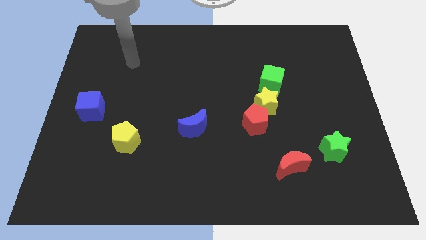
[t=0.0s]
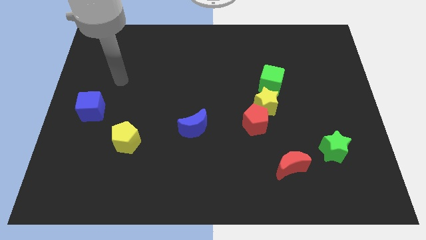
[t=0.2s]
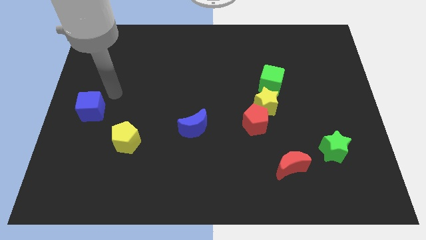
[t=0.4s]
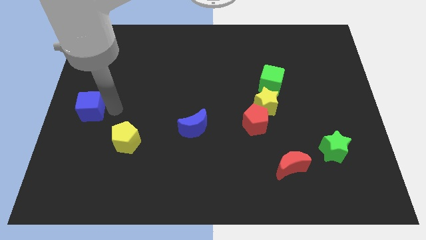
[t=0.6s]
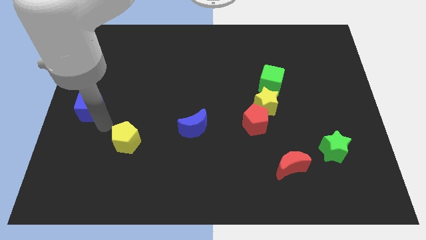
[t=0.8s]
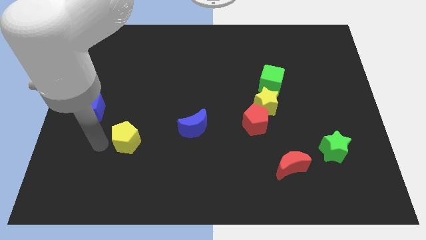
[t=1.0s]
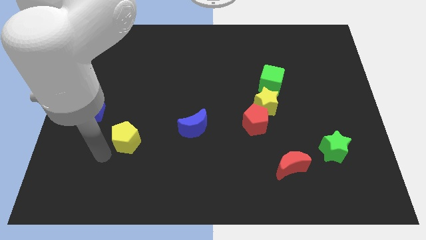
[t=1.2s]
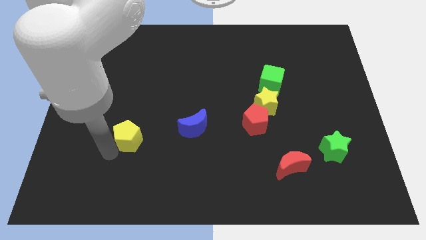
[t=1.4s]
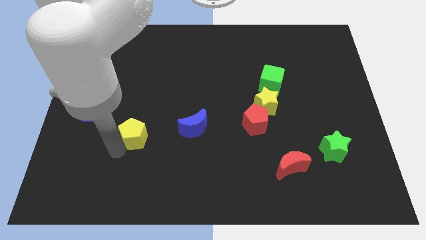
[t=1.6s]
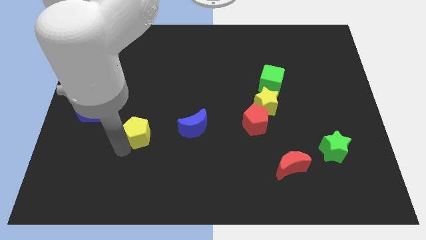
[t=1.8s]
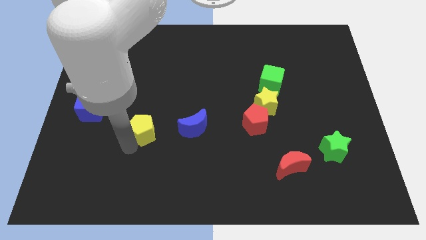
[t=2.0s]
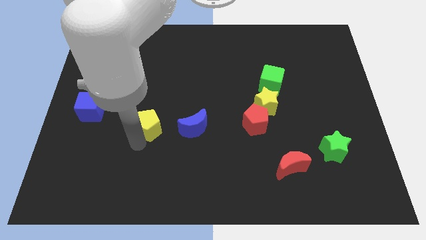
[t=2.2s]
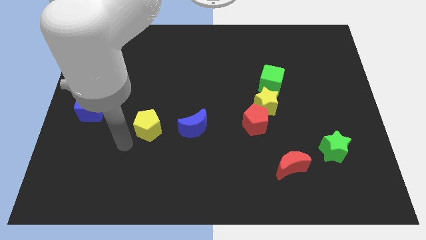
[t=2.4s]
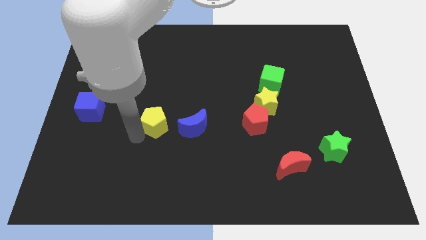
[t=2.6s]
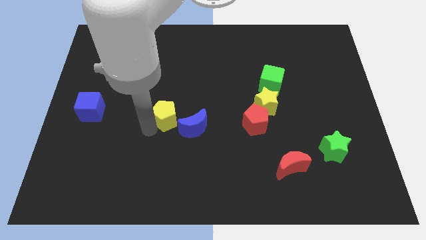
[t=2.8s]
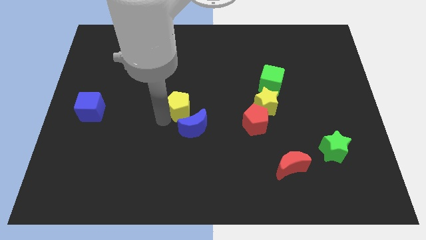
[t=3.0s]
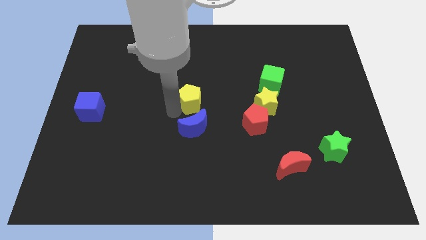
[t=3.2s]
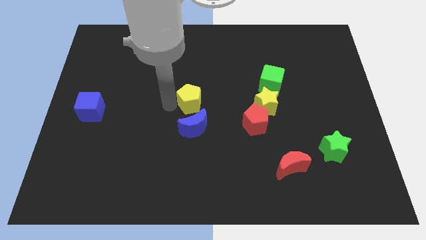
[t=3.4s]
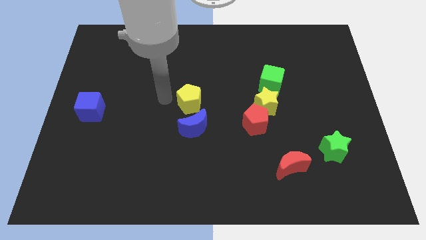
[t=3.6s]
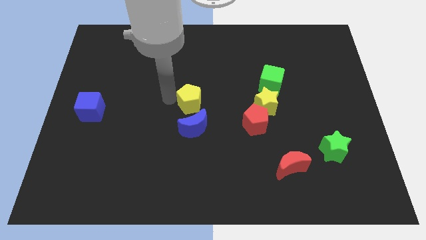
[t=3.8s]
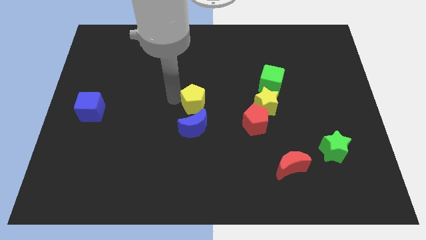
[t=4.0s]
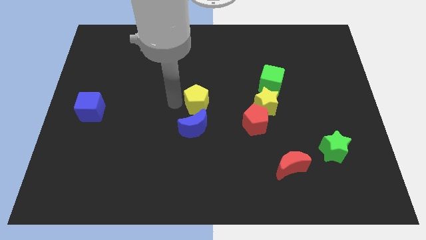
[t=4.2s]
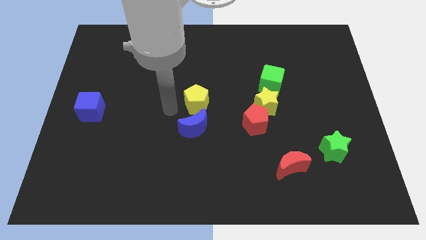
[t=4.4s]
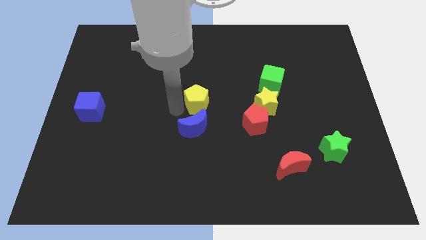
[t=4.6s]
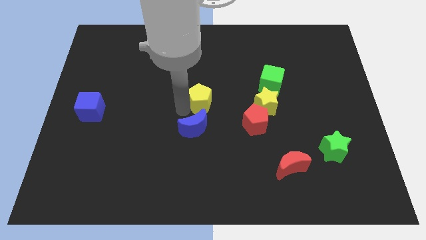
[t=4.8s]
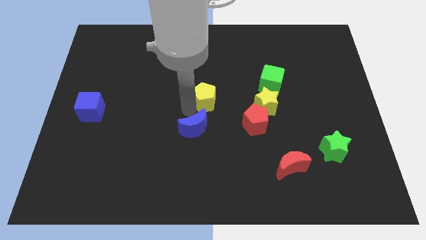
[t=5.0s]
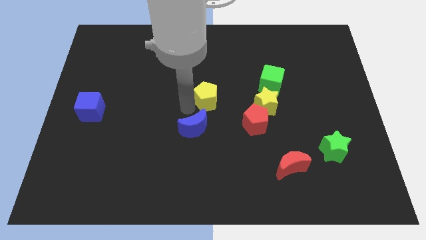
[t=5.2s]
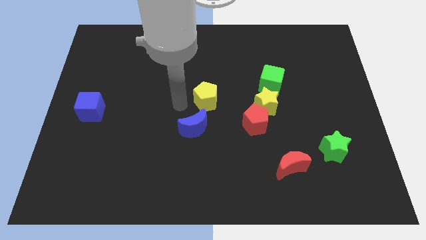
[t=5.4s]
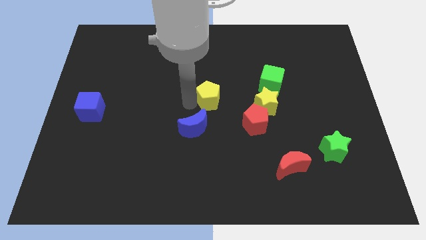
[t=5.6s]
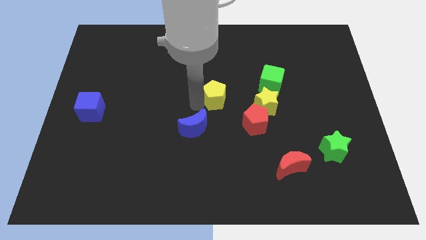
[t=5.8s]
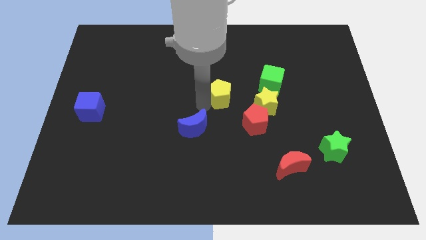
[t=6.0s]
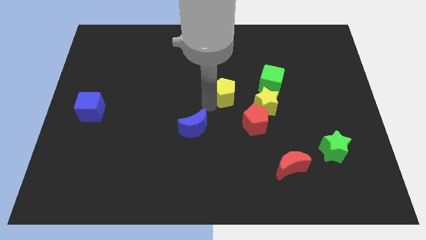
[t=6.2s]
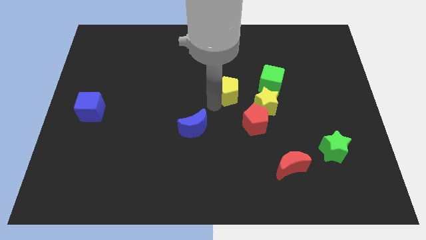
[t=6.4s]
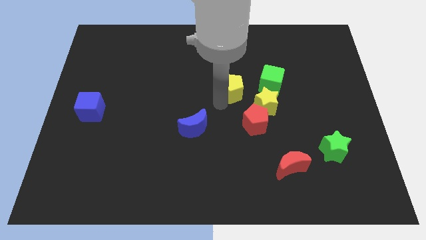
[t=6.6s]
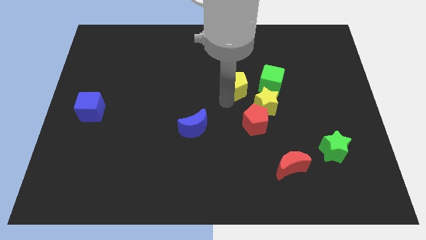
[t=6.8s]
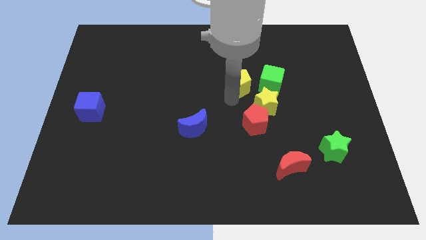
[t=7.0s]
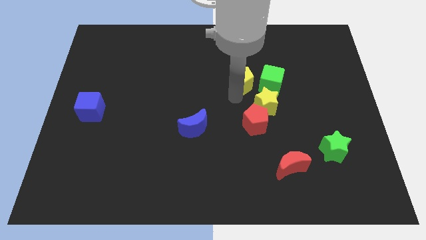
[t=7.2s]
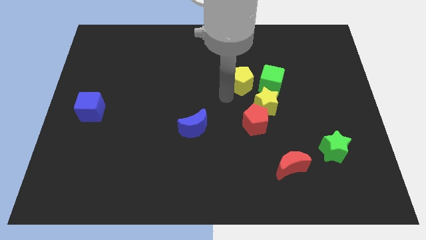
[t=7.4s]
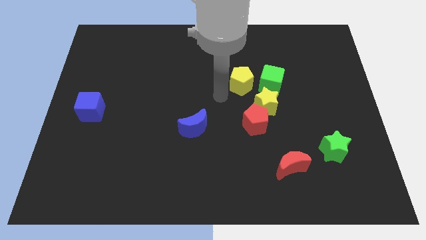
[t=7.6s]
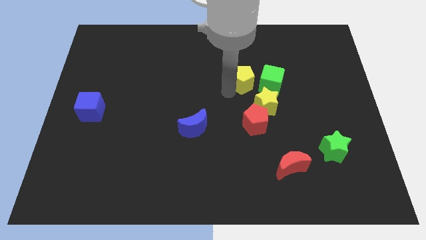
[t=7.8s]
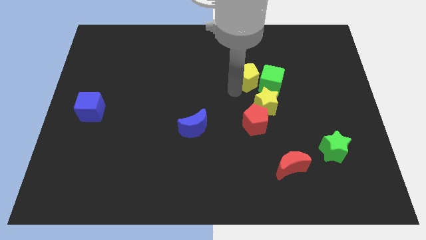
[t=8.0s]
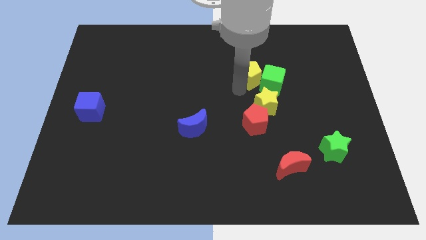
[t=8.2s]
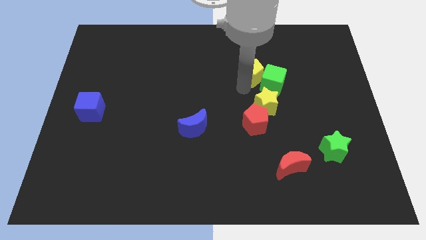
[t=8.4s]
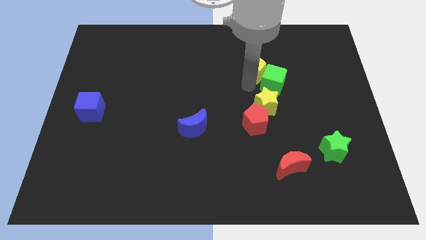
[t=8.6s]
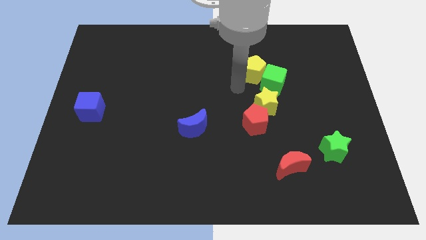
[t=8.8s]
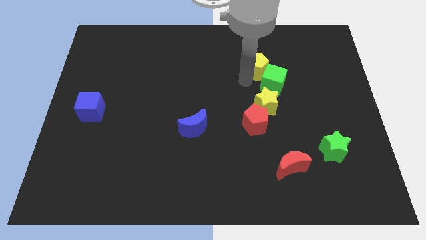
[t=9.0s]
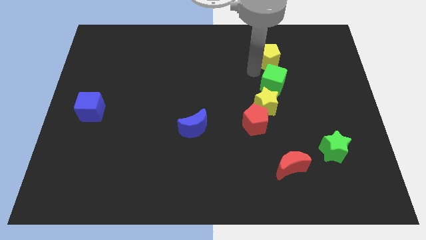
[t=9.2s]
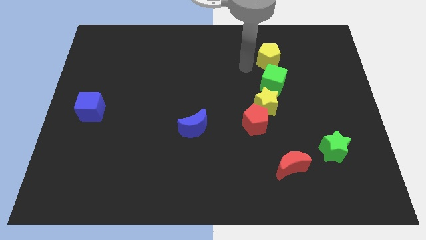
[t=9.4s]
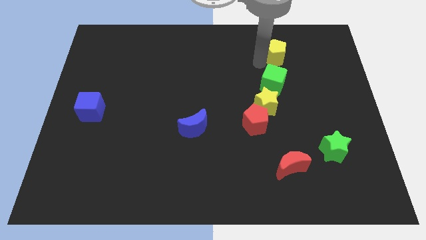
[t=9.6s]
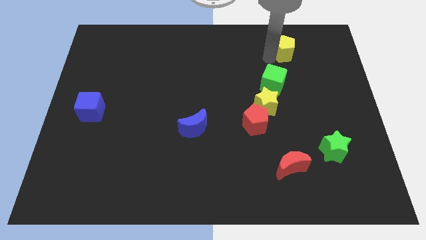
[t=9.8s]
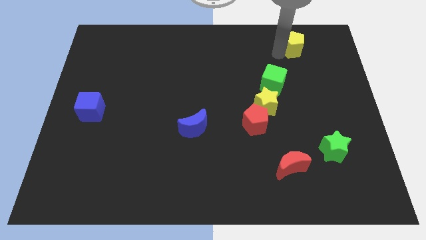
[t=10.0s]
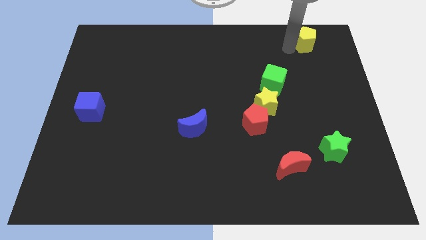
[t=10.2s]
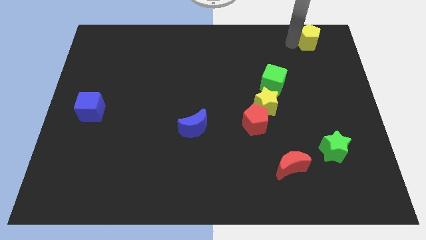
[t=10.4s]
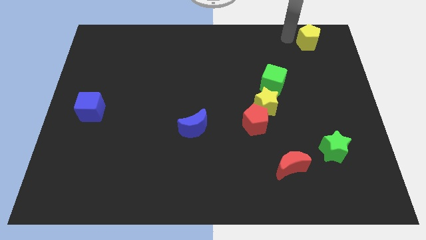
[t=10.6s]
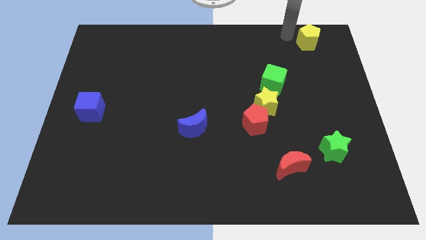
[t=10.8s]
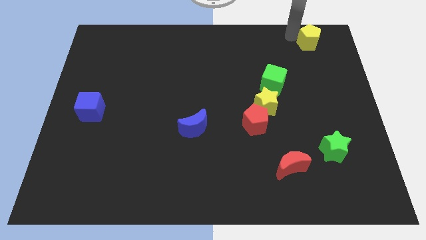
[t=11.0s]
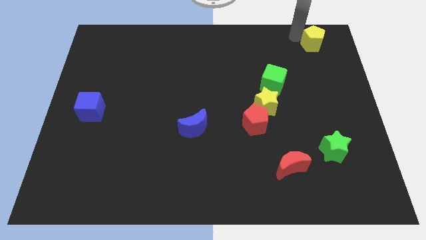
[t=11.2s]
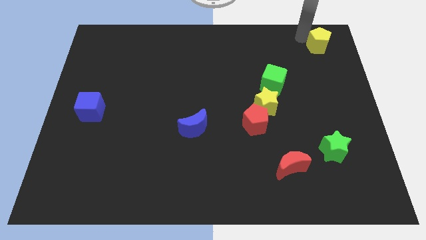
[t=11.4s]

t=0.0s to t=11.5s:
push the yellow pentagon to the top right corner
